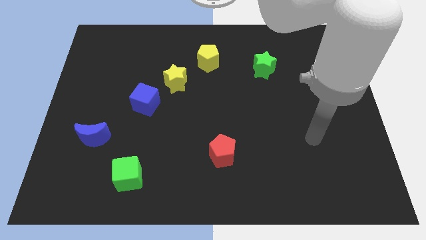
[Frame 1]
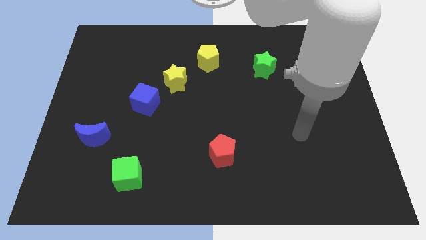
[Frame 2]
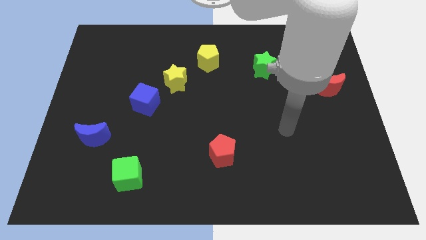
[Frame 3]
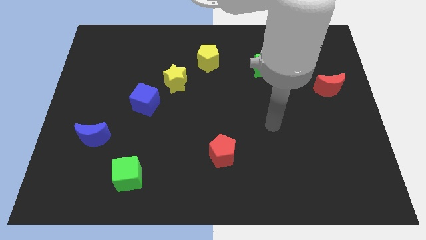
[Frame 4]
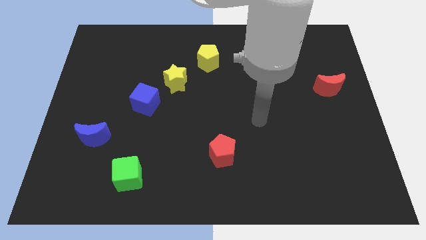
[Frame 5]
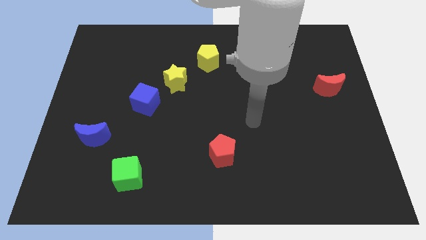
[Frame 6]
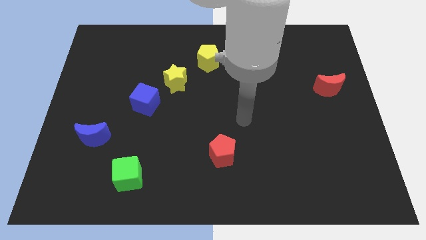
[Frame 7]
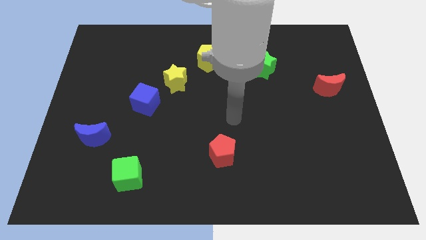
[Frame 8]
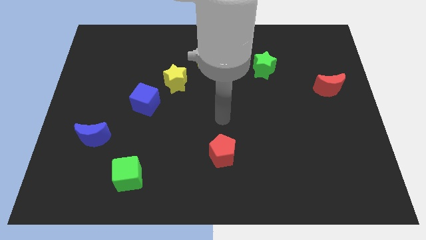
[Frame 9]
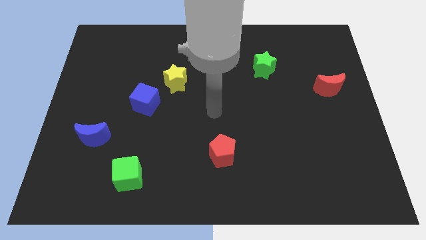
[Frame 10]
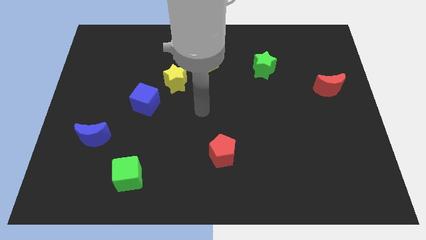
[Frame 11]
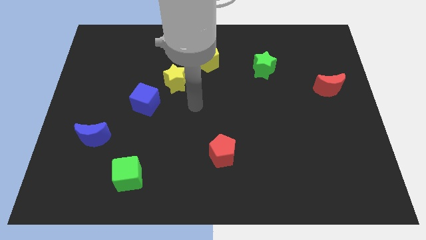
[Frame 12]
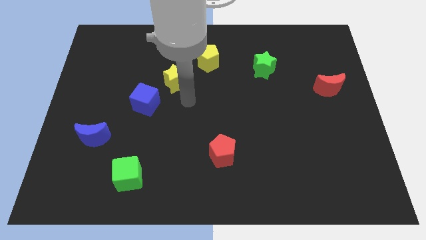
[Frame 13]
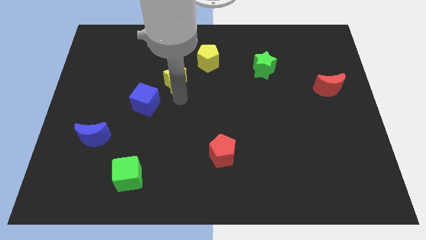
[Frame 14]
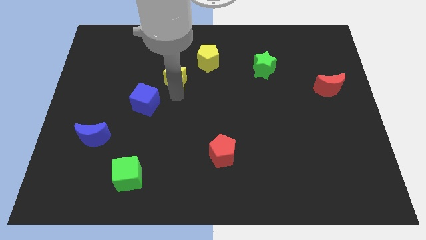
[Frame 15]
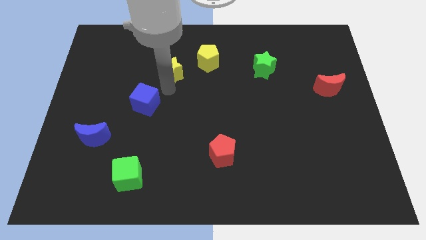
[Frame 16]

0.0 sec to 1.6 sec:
pull the blue cube apart from the yellow star

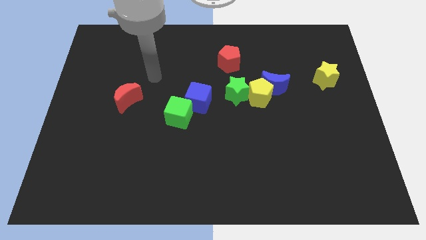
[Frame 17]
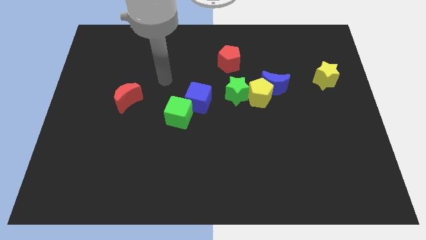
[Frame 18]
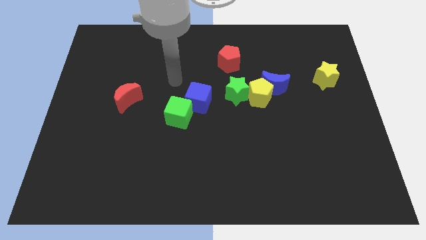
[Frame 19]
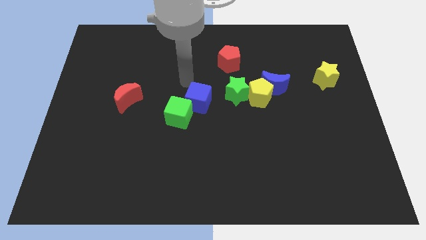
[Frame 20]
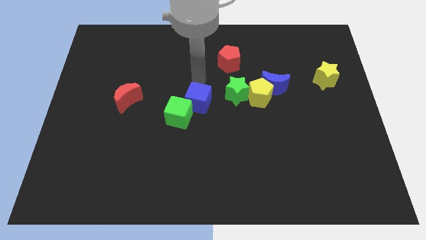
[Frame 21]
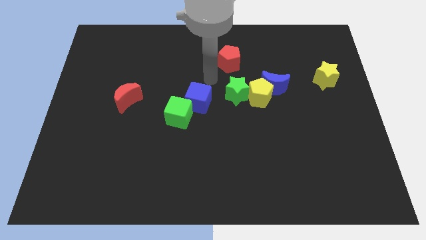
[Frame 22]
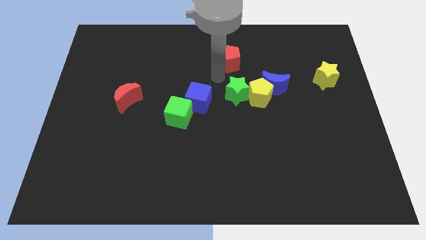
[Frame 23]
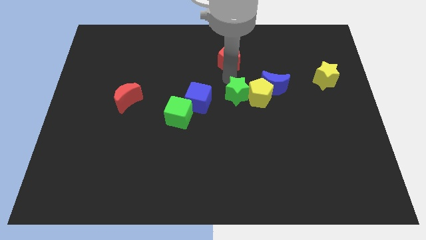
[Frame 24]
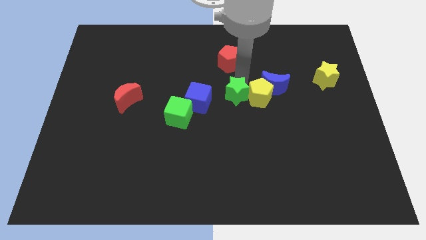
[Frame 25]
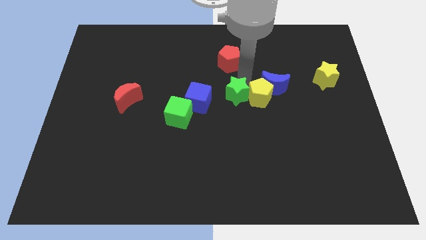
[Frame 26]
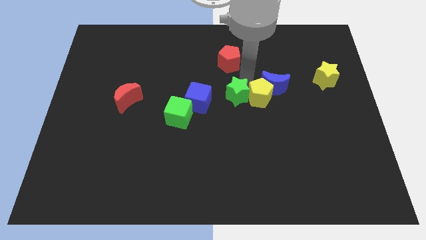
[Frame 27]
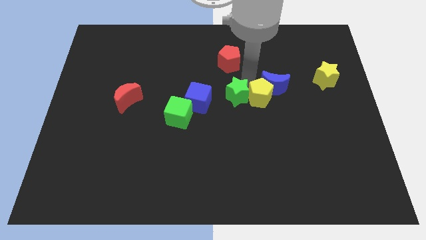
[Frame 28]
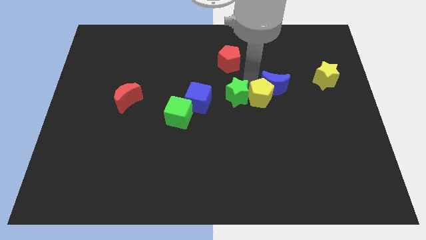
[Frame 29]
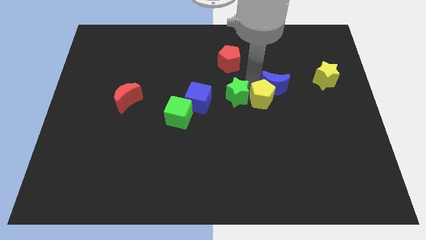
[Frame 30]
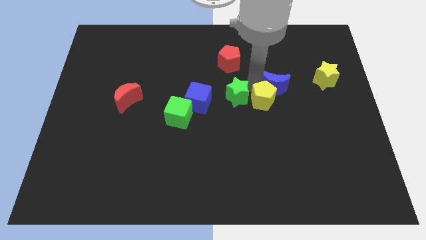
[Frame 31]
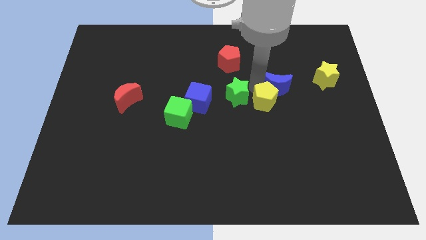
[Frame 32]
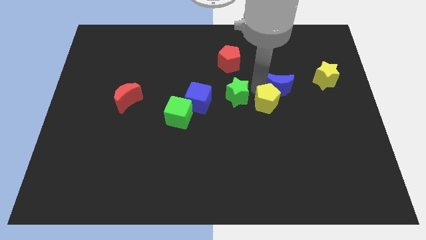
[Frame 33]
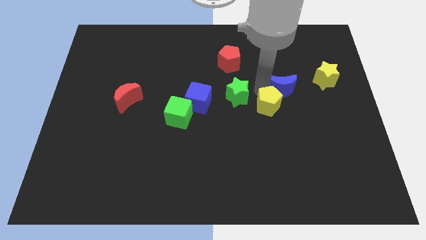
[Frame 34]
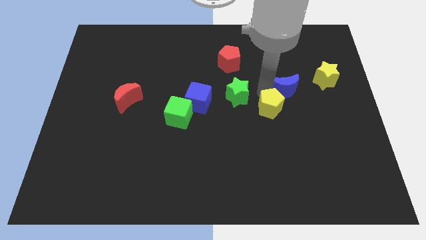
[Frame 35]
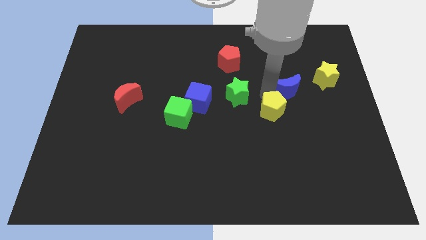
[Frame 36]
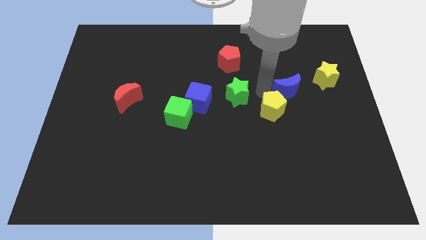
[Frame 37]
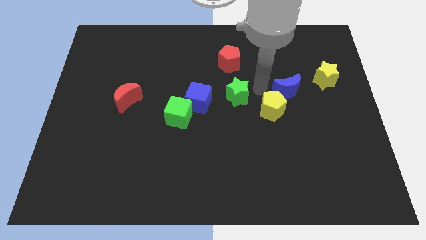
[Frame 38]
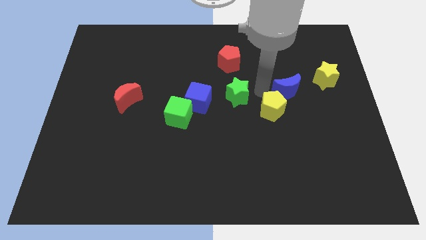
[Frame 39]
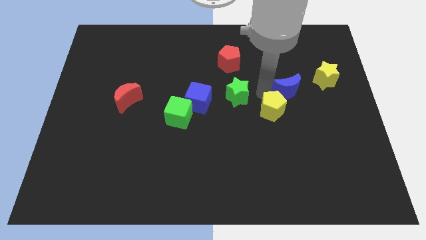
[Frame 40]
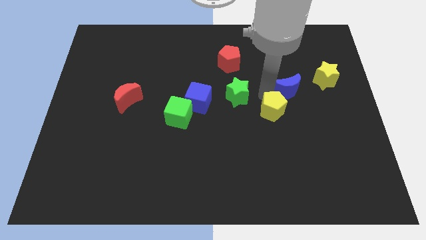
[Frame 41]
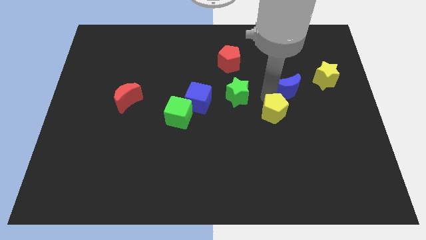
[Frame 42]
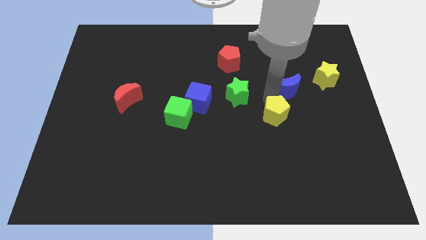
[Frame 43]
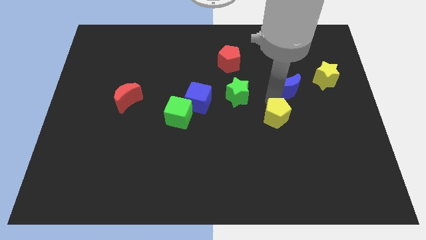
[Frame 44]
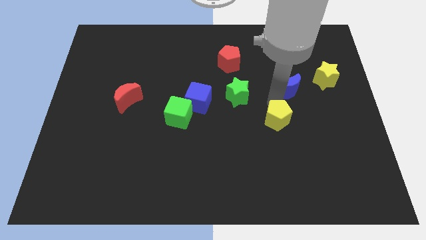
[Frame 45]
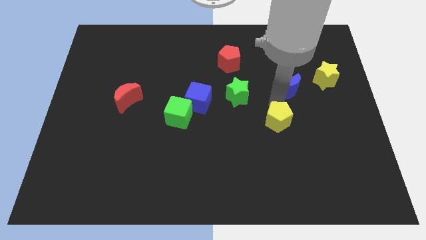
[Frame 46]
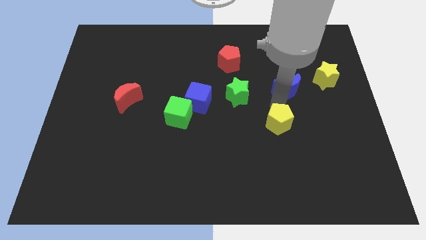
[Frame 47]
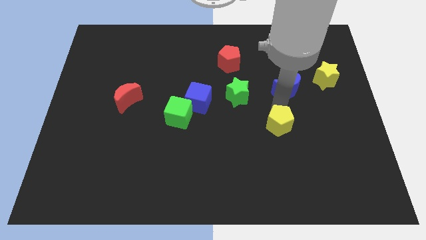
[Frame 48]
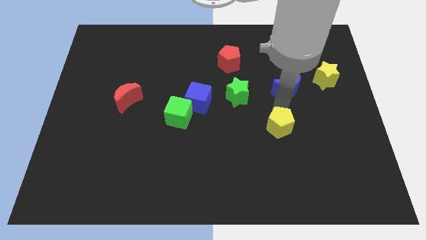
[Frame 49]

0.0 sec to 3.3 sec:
pull the yellow pentagon apart from the blue moon and green star

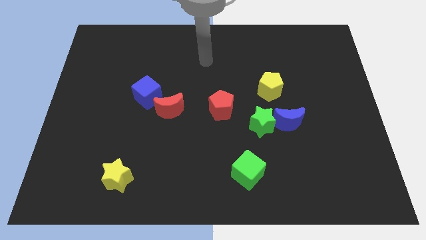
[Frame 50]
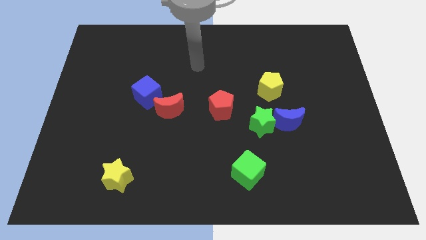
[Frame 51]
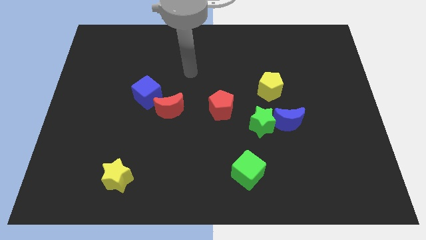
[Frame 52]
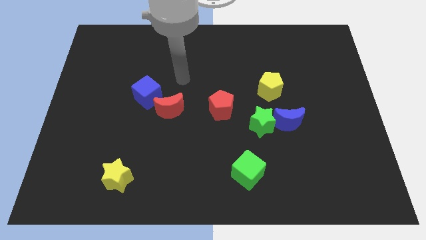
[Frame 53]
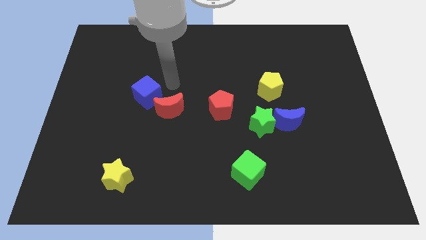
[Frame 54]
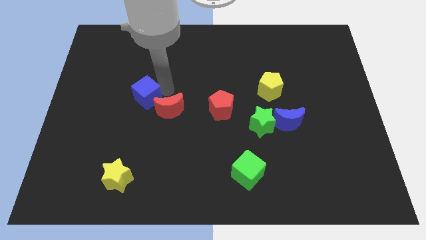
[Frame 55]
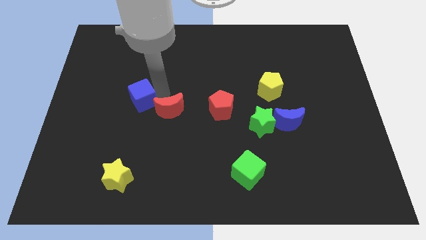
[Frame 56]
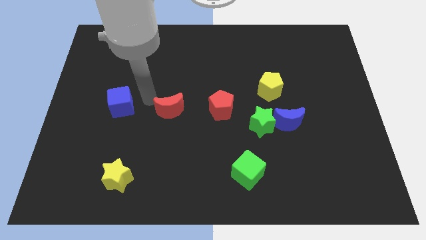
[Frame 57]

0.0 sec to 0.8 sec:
pull the red moon apart from the blue cube

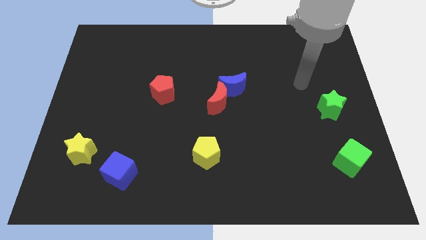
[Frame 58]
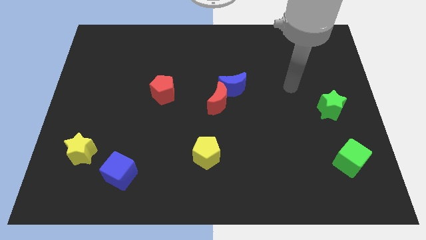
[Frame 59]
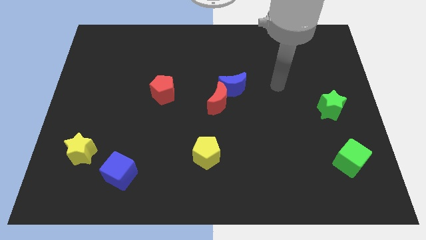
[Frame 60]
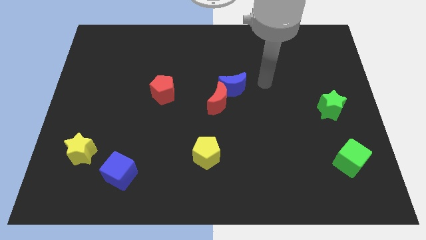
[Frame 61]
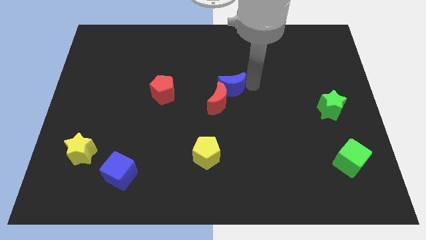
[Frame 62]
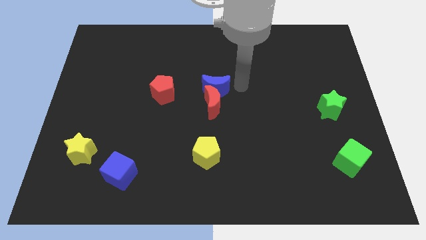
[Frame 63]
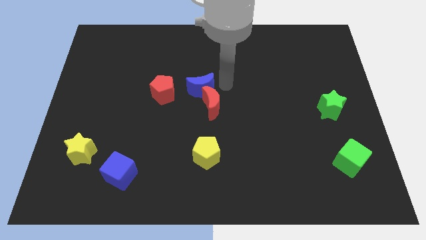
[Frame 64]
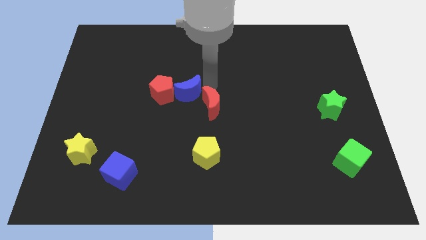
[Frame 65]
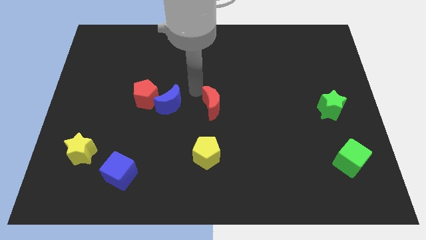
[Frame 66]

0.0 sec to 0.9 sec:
separate the red moon from the blue moon

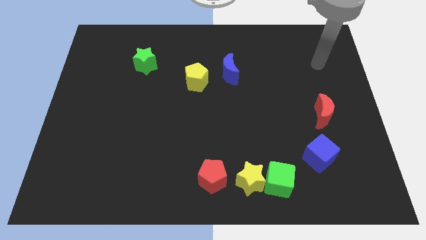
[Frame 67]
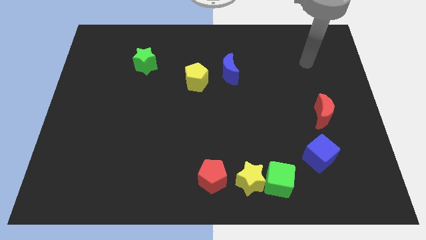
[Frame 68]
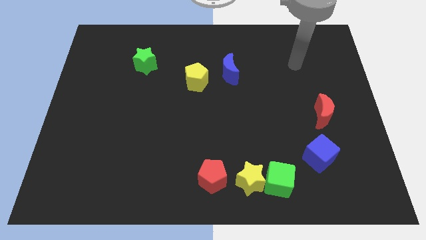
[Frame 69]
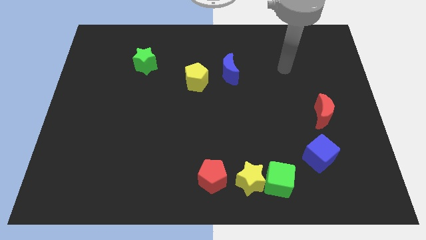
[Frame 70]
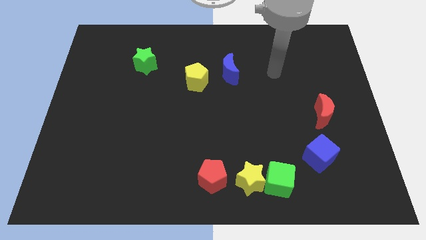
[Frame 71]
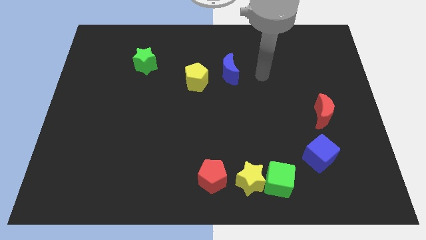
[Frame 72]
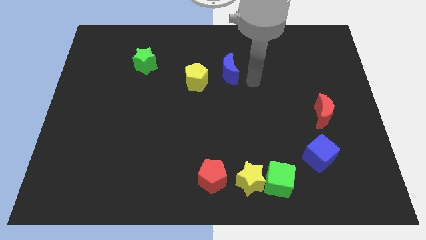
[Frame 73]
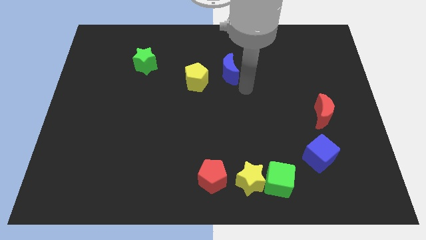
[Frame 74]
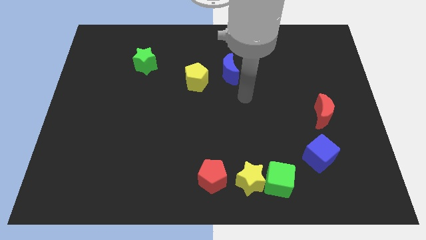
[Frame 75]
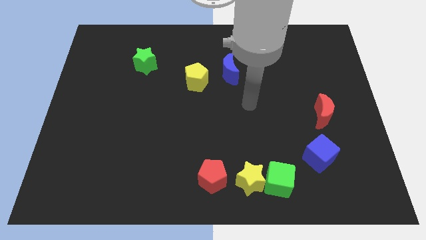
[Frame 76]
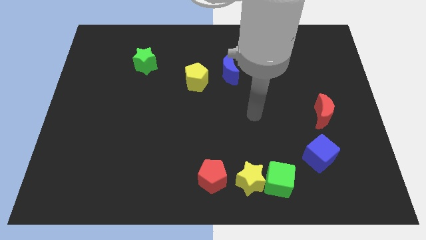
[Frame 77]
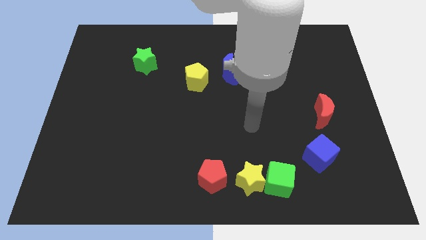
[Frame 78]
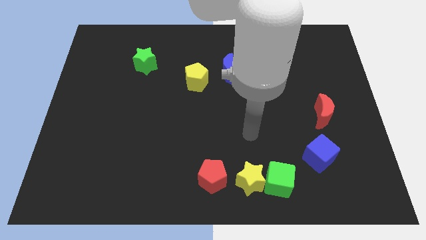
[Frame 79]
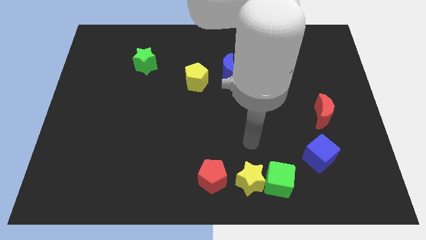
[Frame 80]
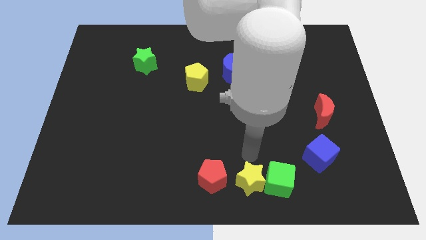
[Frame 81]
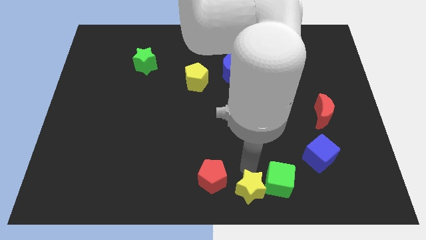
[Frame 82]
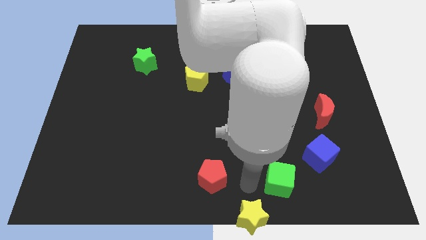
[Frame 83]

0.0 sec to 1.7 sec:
separate the green cube from the yellow star

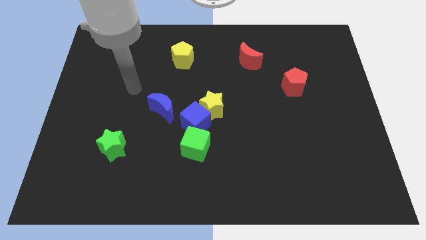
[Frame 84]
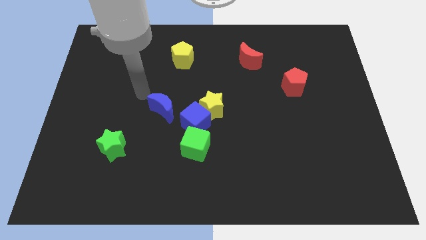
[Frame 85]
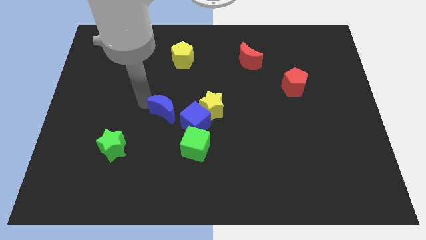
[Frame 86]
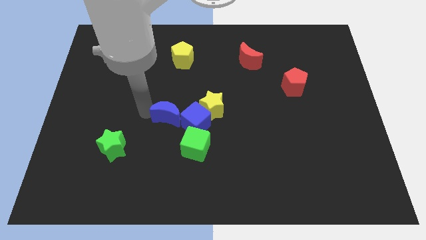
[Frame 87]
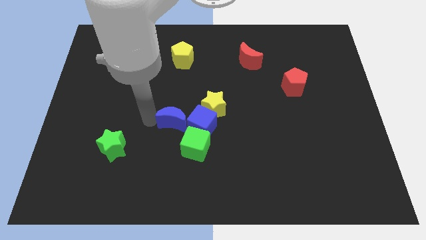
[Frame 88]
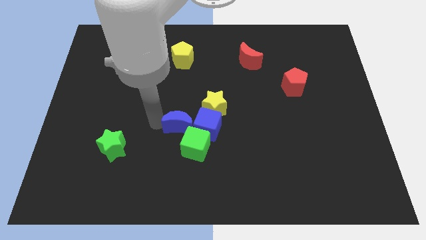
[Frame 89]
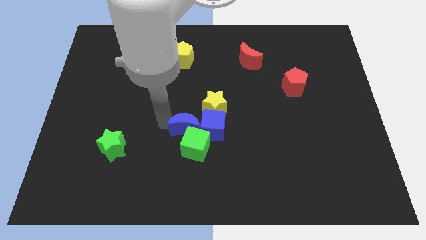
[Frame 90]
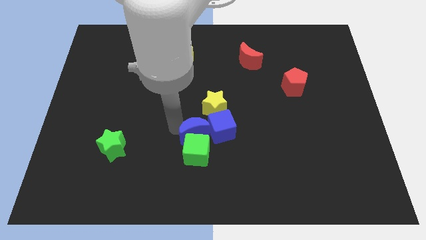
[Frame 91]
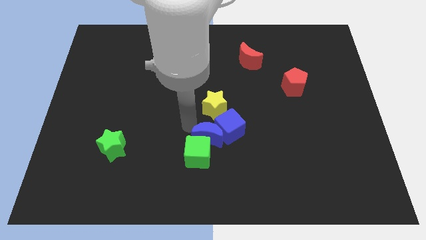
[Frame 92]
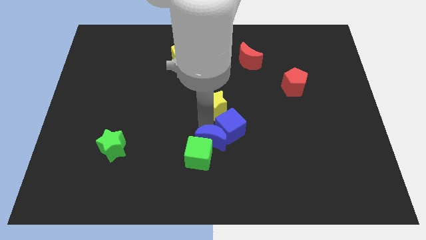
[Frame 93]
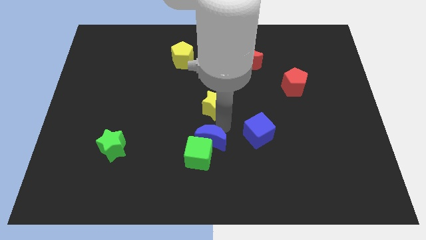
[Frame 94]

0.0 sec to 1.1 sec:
separate the yellow star from the blue cube
